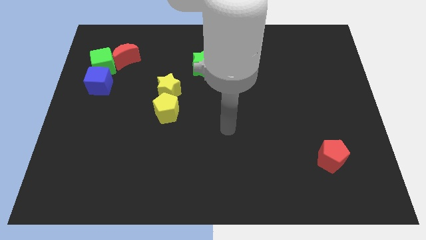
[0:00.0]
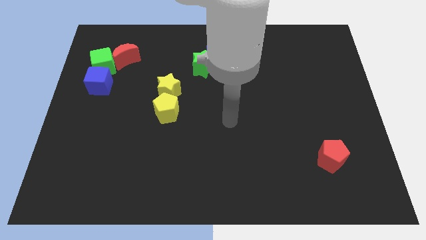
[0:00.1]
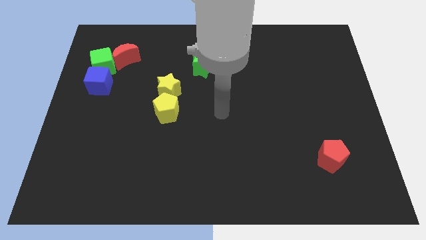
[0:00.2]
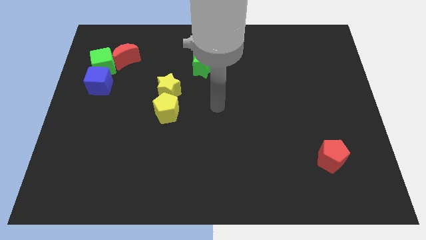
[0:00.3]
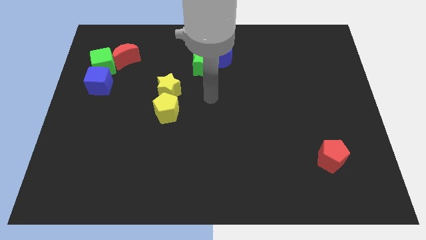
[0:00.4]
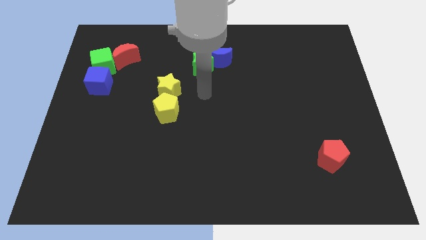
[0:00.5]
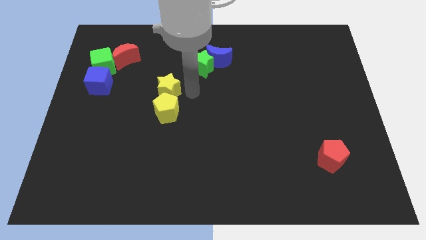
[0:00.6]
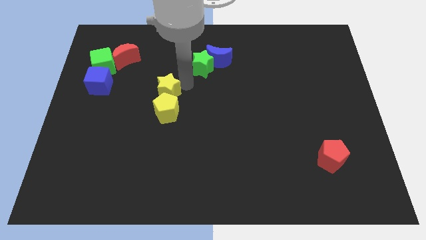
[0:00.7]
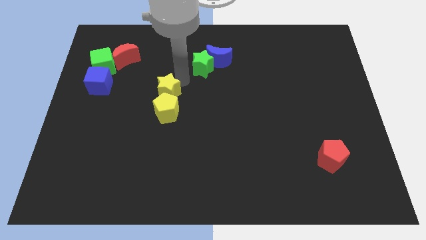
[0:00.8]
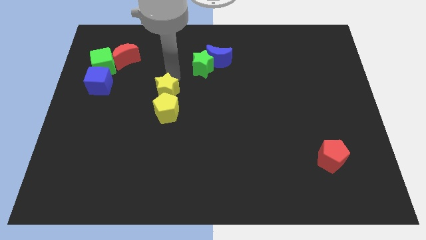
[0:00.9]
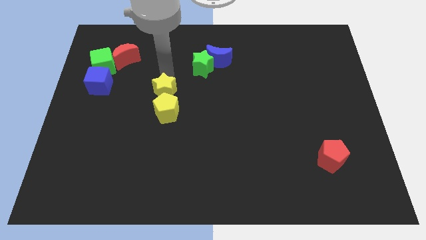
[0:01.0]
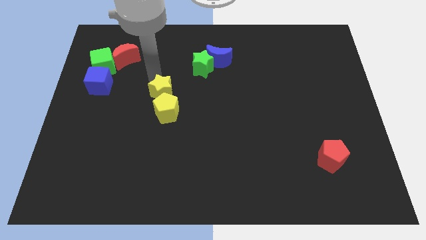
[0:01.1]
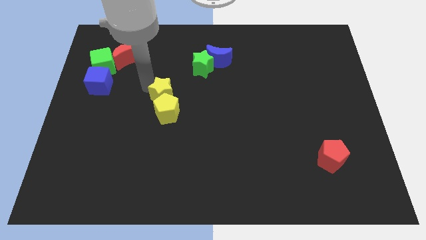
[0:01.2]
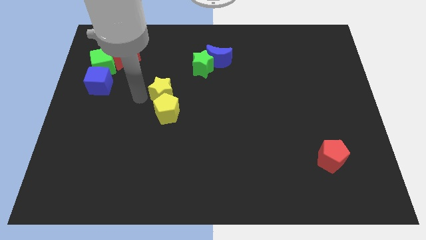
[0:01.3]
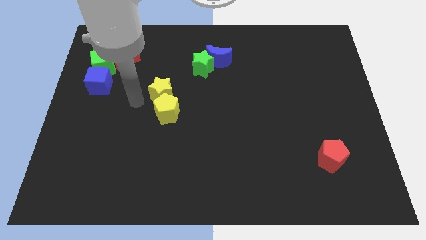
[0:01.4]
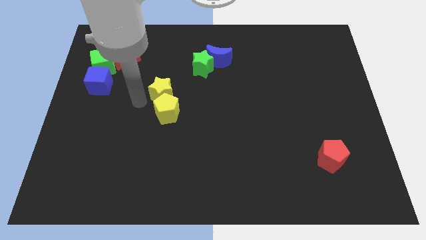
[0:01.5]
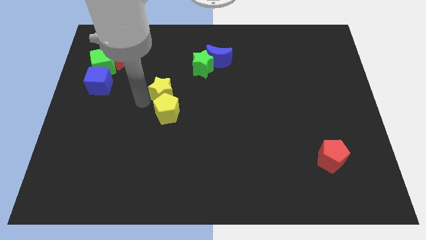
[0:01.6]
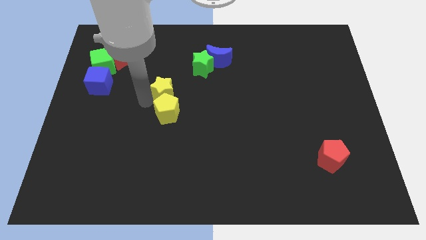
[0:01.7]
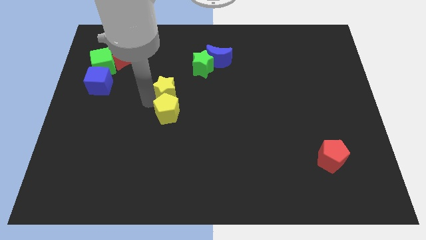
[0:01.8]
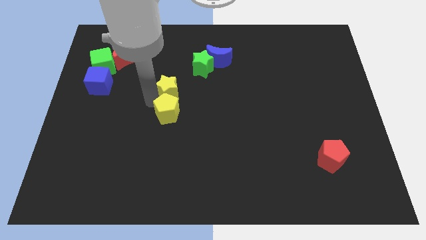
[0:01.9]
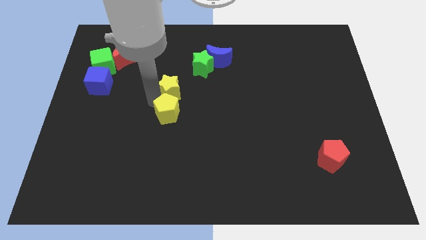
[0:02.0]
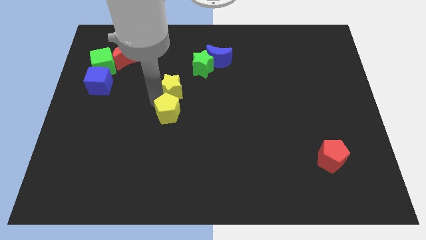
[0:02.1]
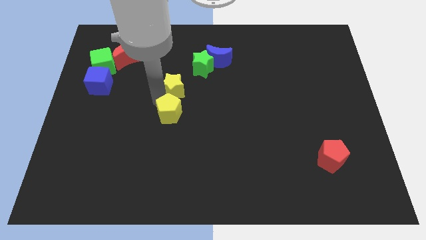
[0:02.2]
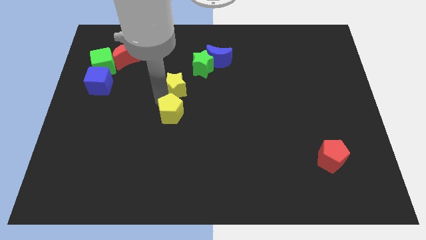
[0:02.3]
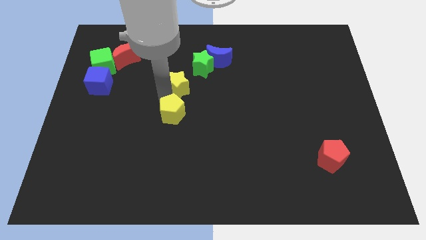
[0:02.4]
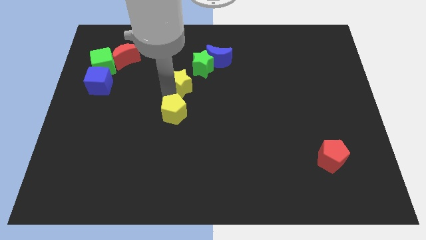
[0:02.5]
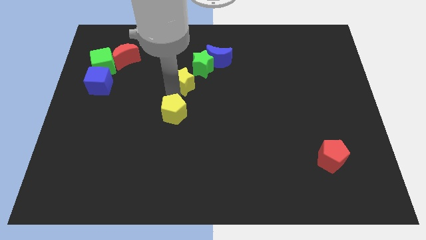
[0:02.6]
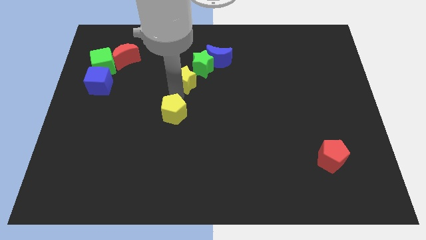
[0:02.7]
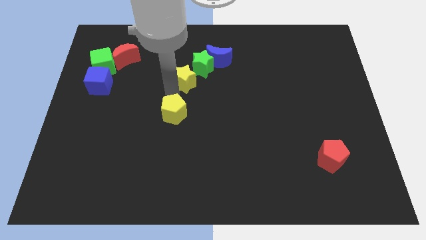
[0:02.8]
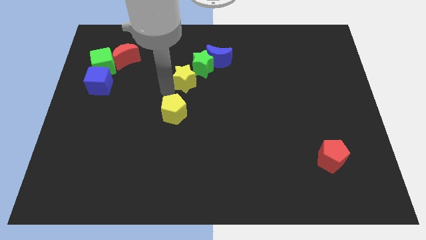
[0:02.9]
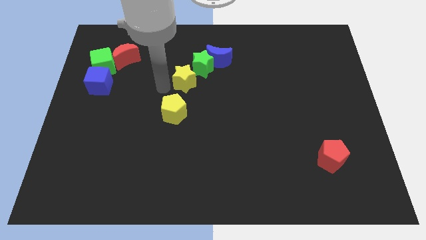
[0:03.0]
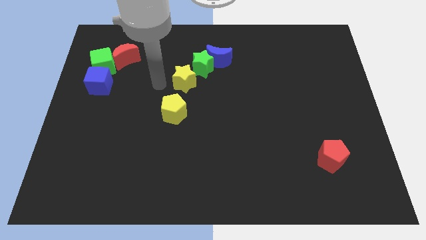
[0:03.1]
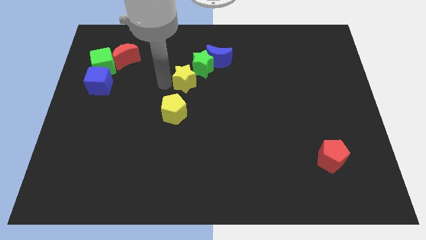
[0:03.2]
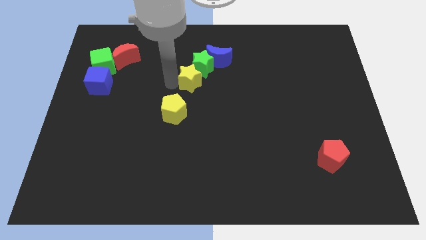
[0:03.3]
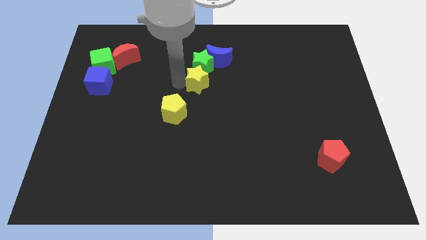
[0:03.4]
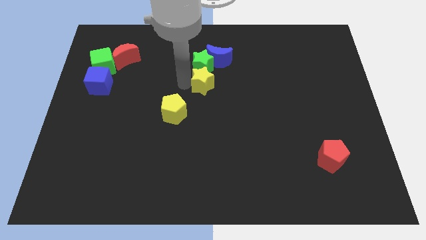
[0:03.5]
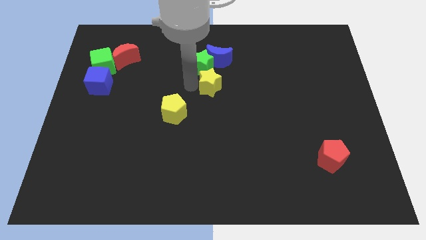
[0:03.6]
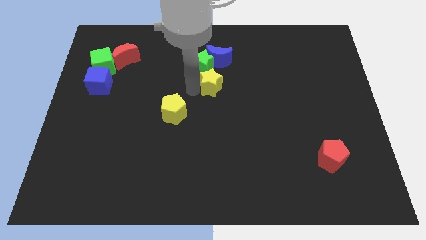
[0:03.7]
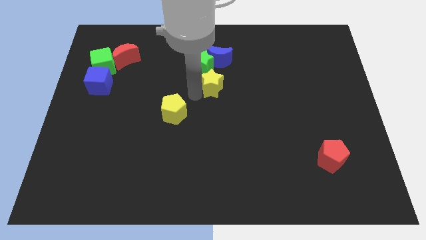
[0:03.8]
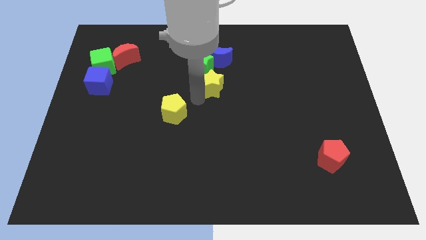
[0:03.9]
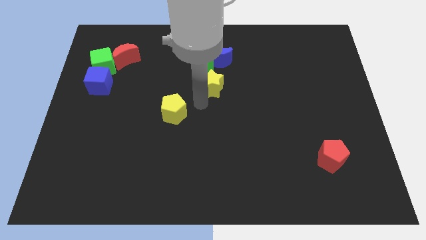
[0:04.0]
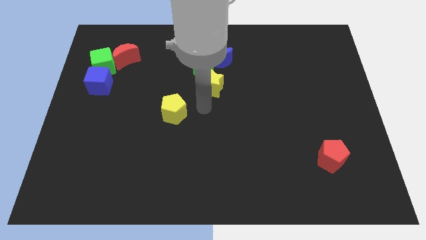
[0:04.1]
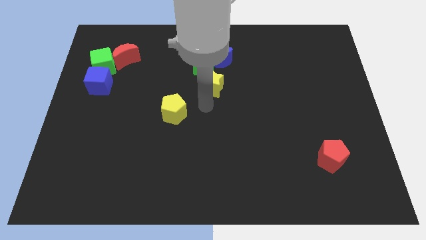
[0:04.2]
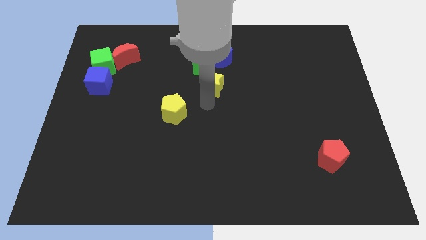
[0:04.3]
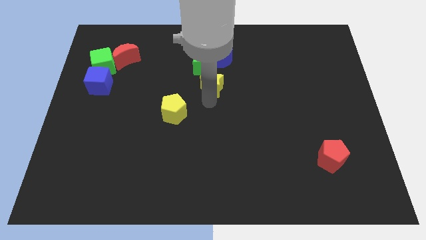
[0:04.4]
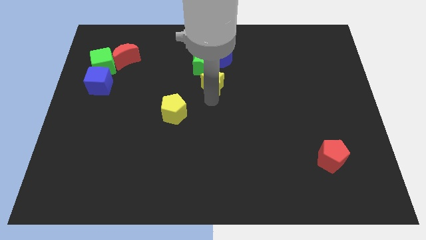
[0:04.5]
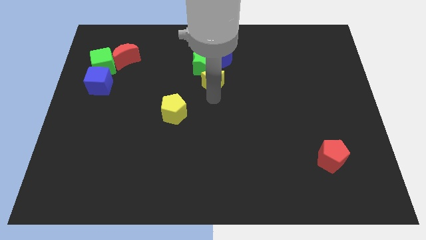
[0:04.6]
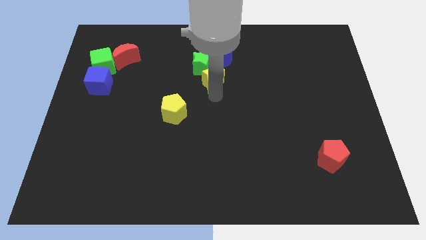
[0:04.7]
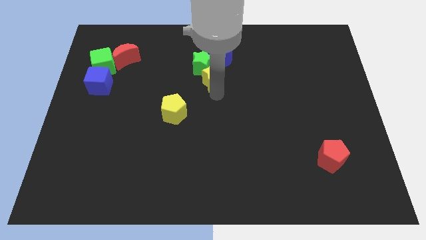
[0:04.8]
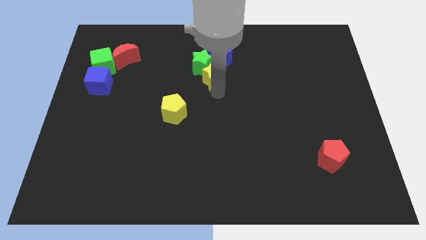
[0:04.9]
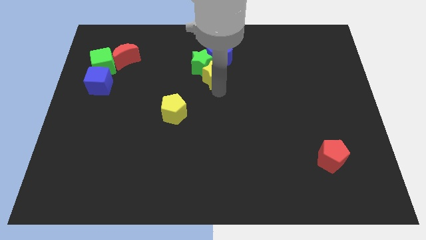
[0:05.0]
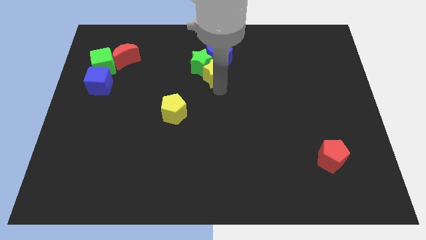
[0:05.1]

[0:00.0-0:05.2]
put the yellow star close to the blue moon

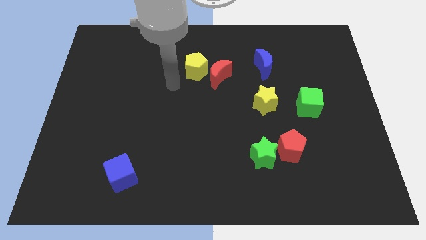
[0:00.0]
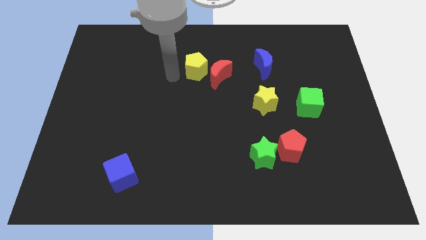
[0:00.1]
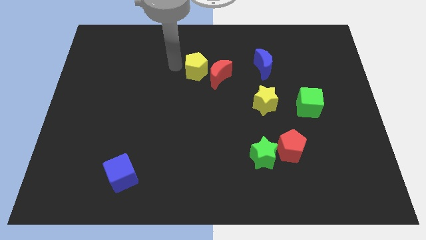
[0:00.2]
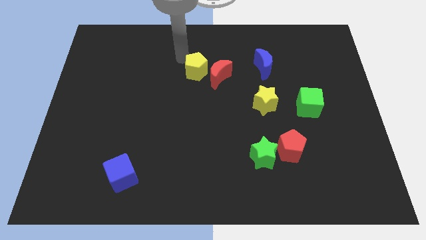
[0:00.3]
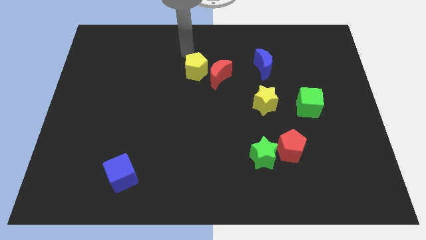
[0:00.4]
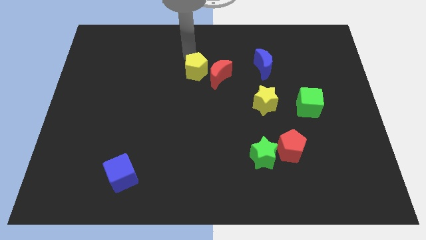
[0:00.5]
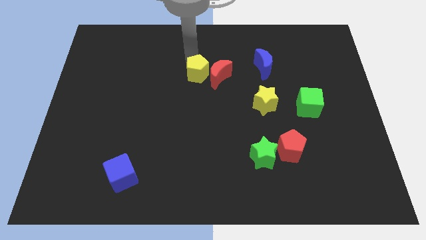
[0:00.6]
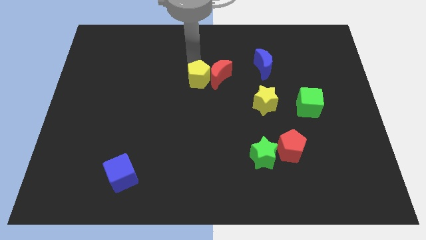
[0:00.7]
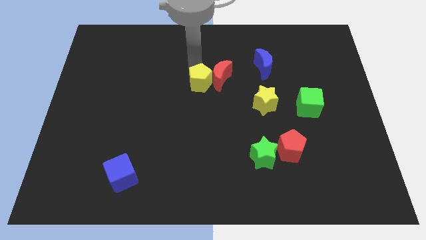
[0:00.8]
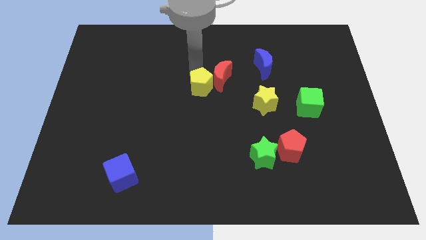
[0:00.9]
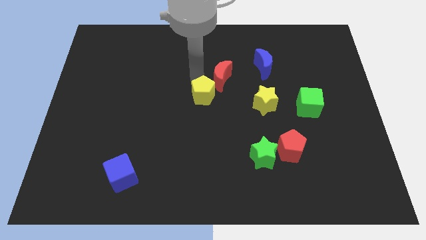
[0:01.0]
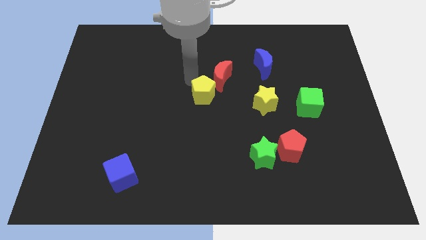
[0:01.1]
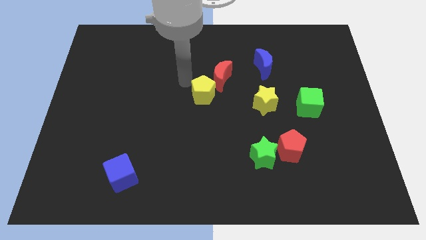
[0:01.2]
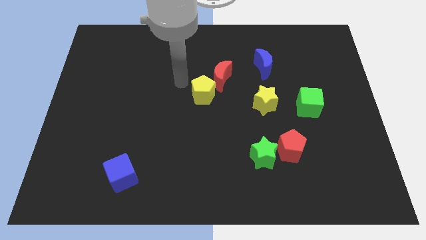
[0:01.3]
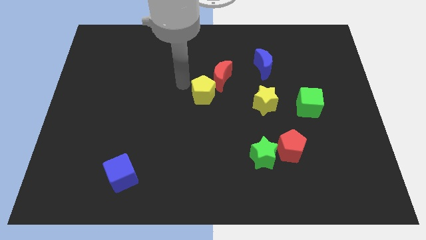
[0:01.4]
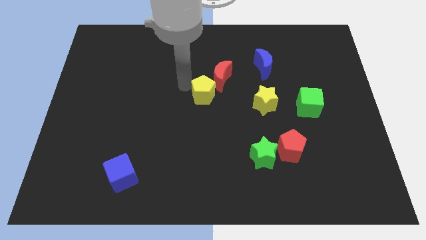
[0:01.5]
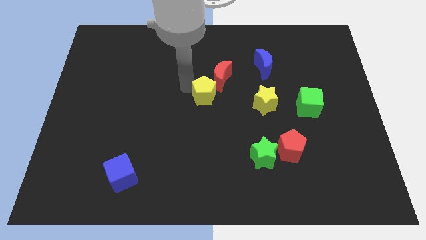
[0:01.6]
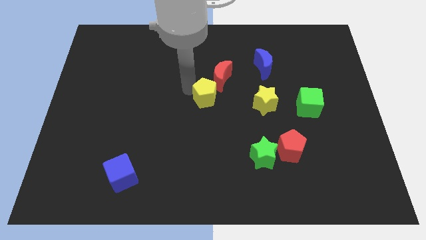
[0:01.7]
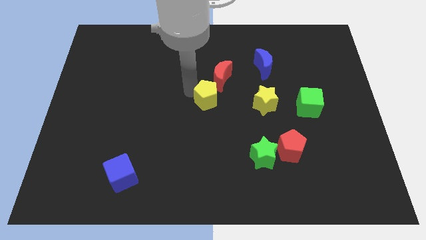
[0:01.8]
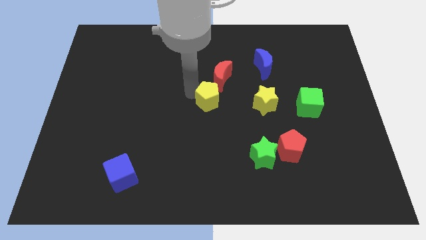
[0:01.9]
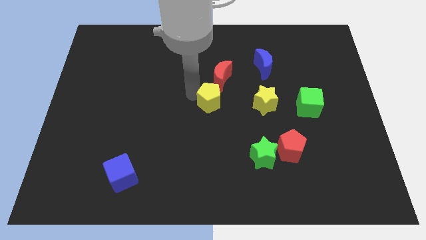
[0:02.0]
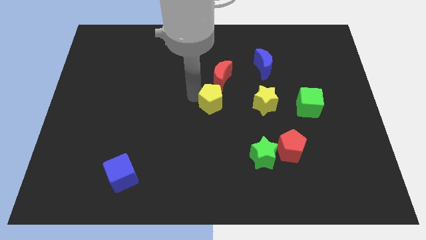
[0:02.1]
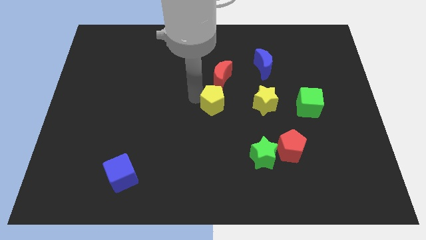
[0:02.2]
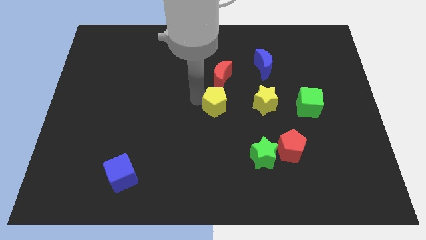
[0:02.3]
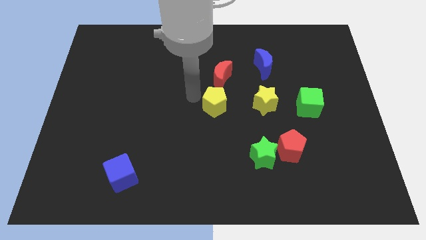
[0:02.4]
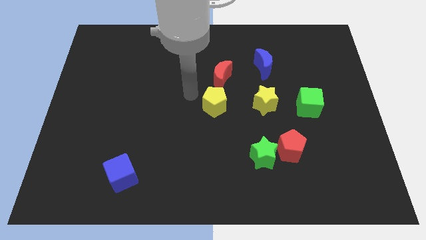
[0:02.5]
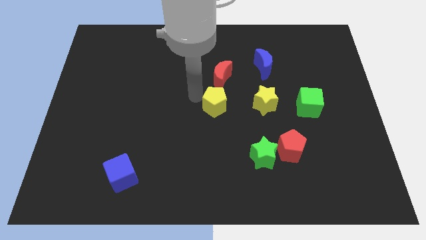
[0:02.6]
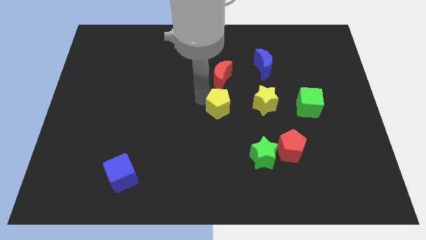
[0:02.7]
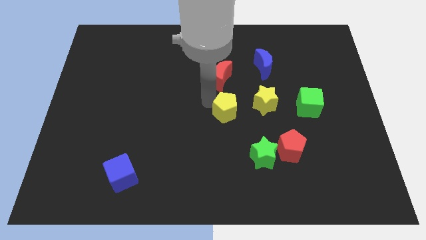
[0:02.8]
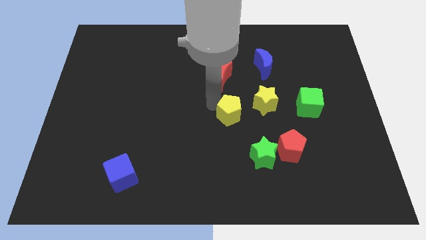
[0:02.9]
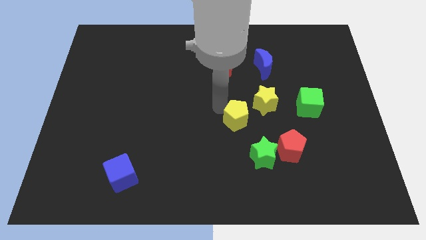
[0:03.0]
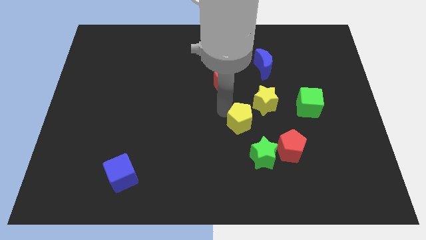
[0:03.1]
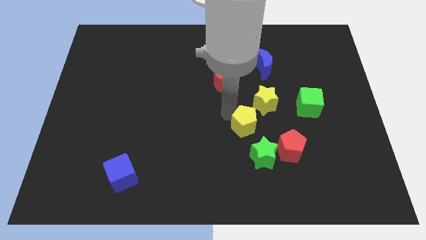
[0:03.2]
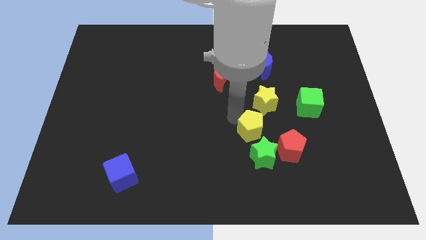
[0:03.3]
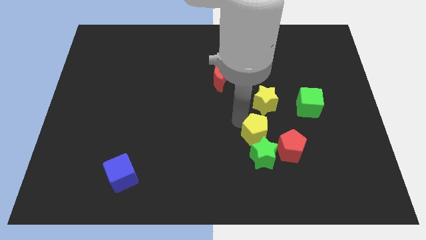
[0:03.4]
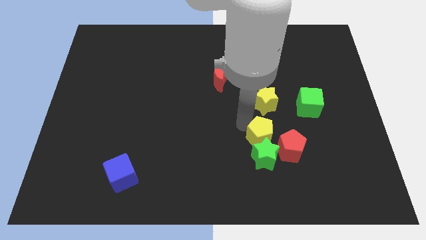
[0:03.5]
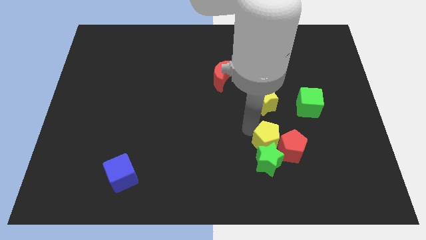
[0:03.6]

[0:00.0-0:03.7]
put the yellow pentagon close to the red pentagon
